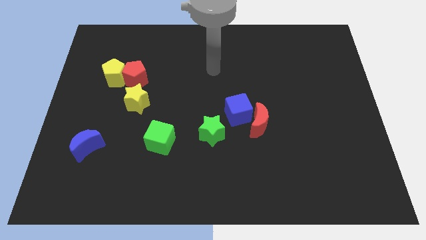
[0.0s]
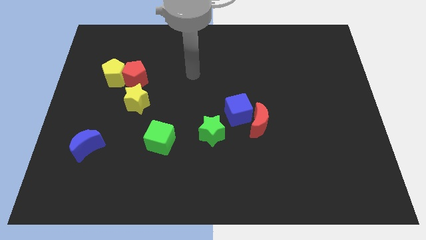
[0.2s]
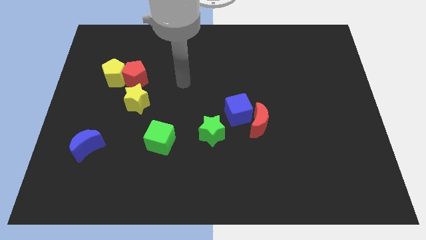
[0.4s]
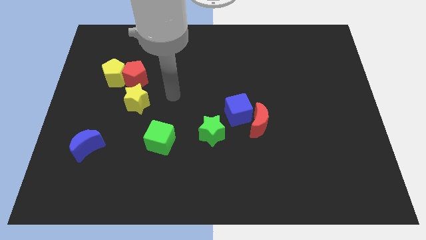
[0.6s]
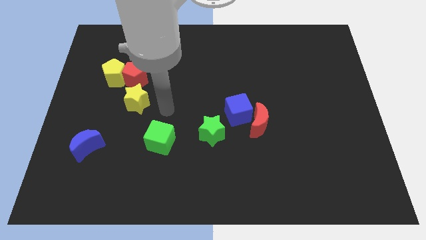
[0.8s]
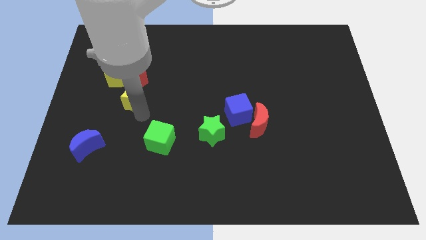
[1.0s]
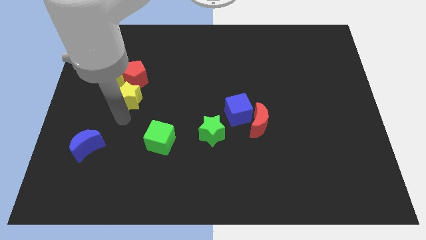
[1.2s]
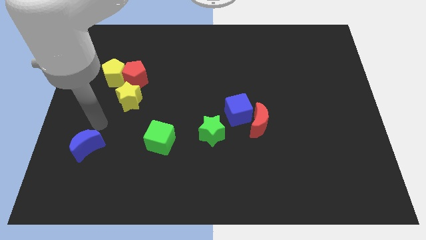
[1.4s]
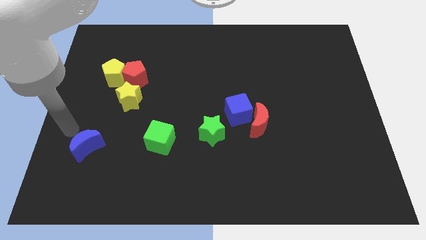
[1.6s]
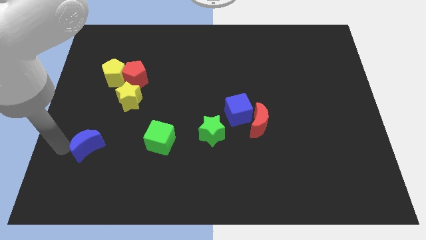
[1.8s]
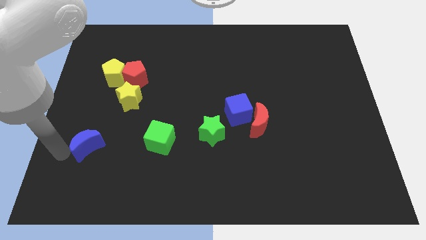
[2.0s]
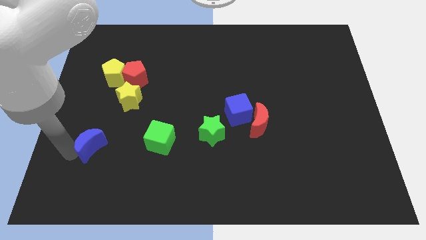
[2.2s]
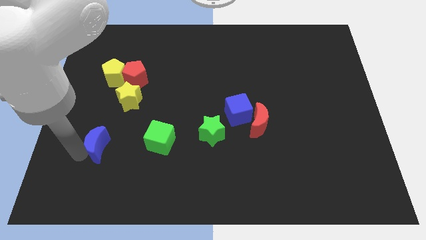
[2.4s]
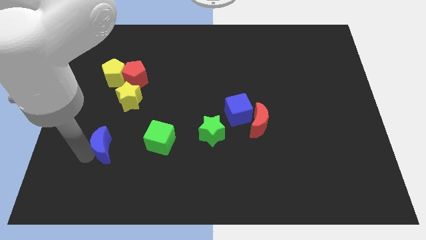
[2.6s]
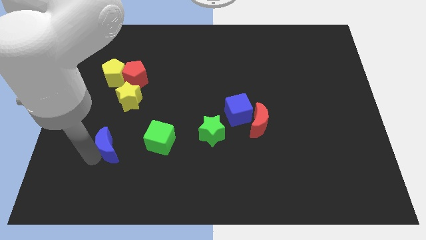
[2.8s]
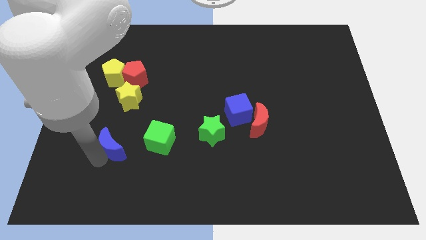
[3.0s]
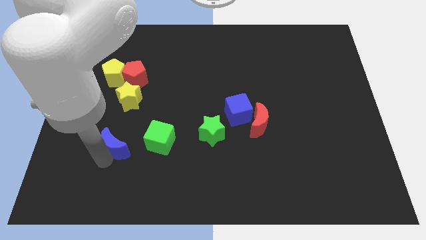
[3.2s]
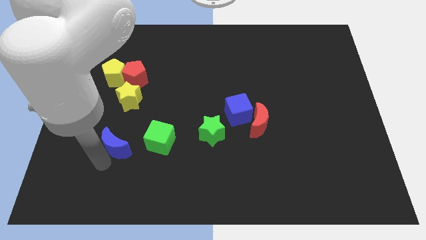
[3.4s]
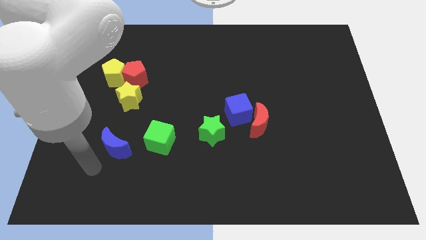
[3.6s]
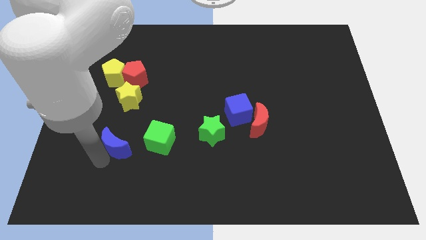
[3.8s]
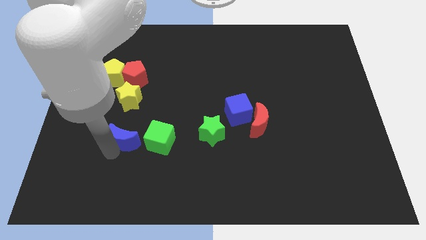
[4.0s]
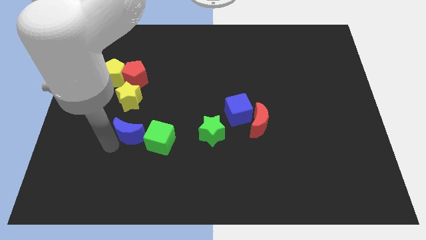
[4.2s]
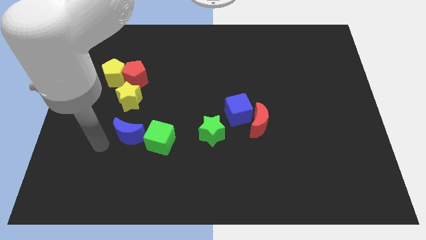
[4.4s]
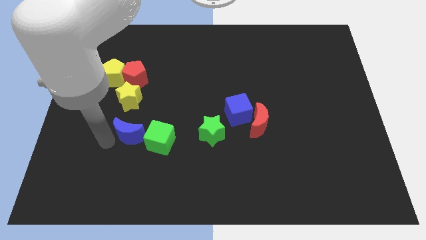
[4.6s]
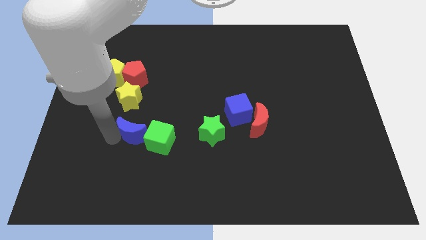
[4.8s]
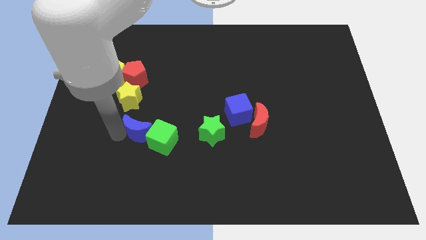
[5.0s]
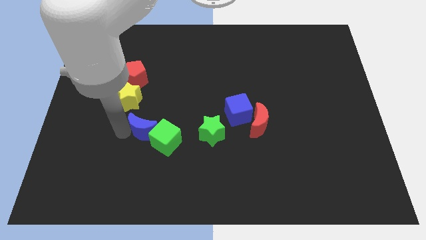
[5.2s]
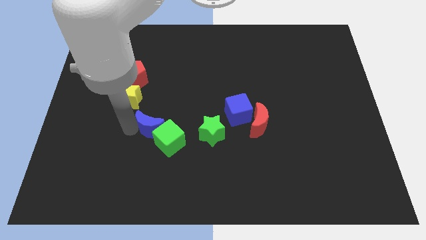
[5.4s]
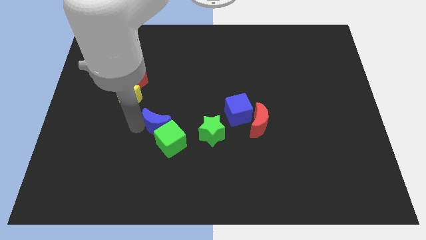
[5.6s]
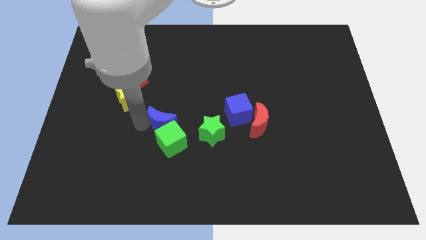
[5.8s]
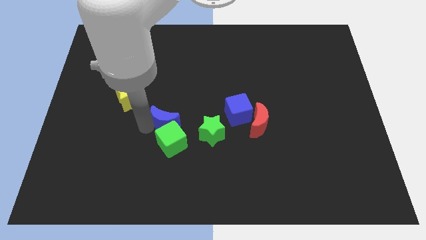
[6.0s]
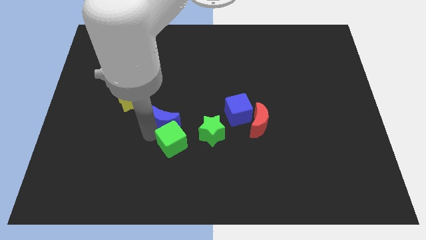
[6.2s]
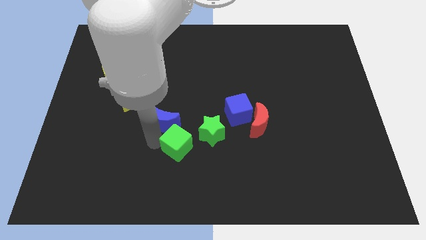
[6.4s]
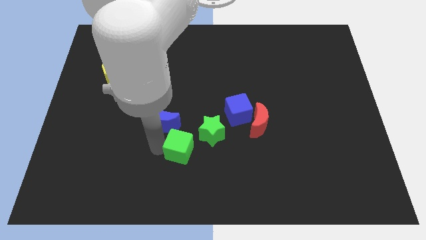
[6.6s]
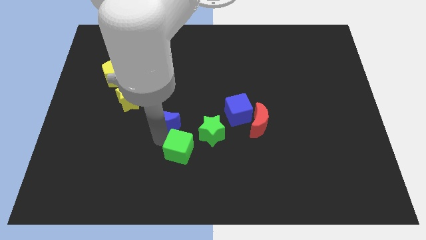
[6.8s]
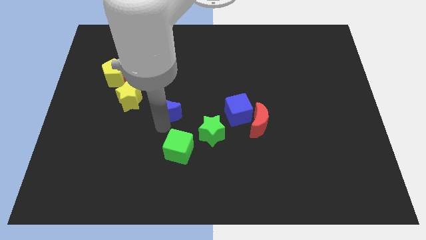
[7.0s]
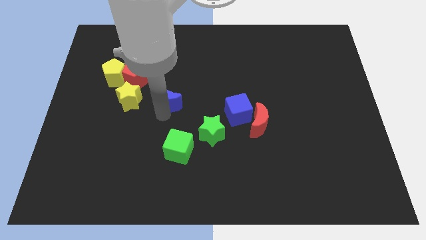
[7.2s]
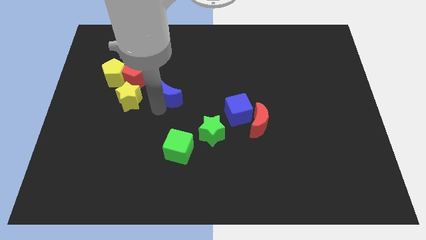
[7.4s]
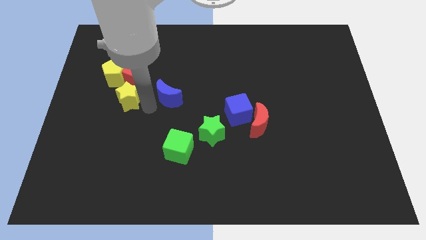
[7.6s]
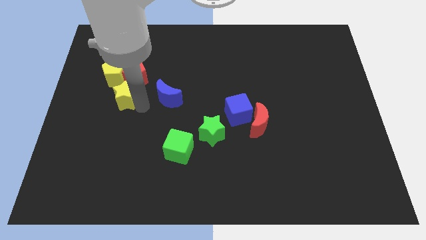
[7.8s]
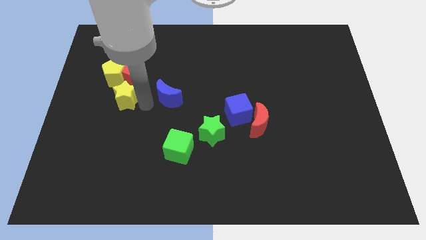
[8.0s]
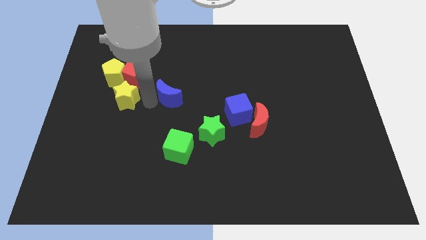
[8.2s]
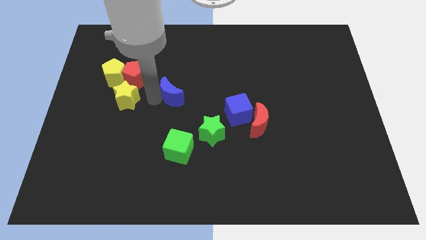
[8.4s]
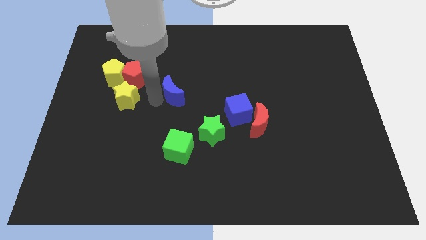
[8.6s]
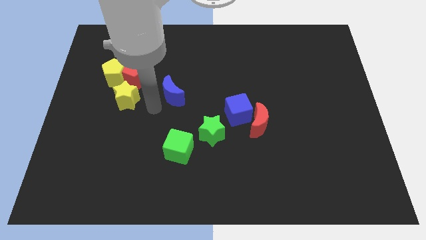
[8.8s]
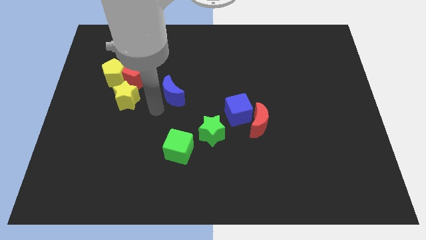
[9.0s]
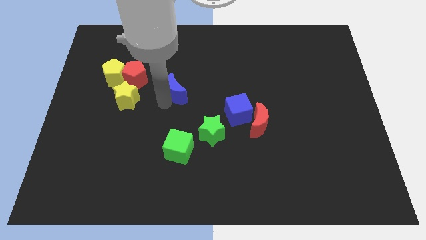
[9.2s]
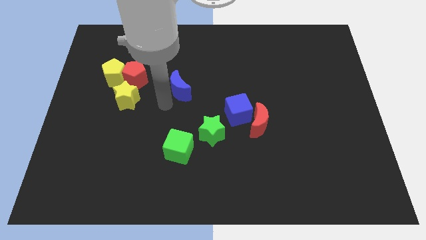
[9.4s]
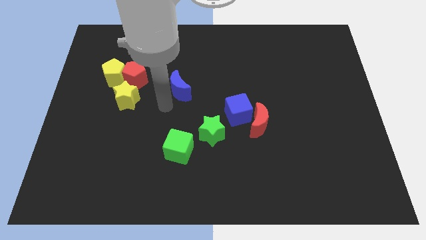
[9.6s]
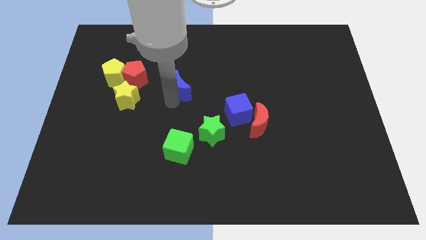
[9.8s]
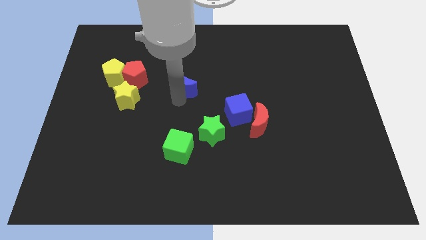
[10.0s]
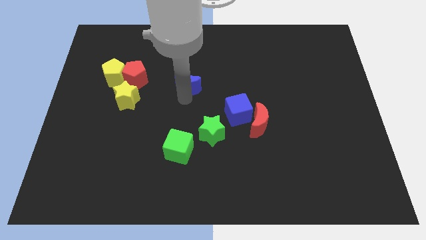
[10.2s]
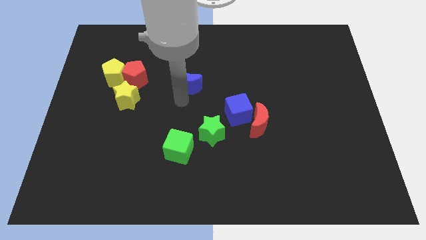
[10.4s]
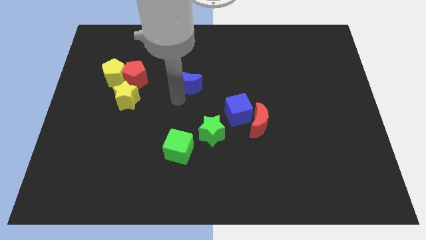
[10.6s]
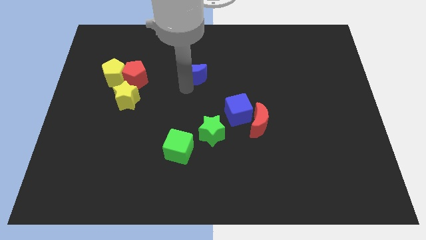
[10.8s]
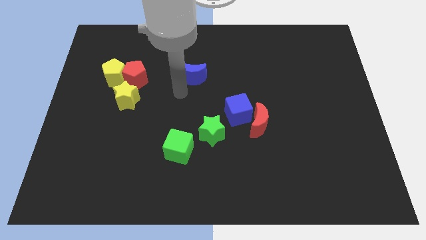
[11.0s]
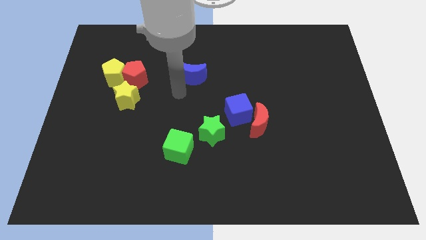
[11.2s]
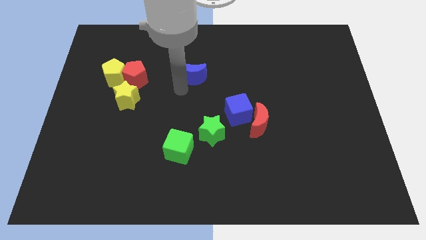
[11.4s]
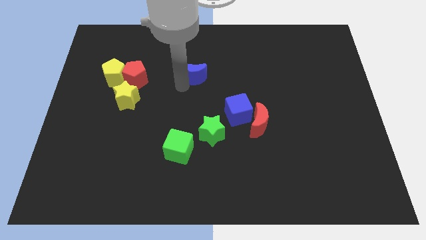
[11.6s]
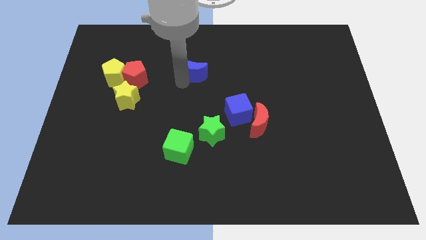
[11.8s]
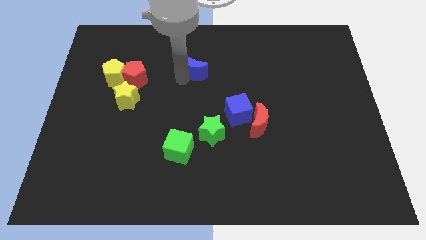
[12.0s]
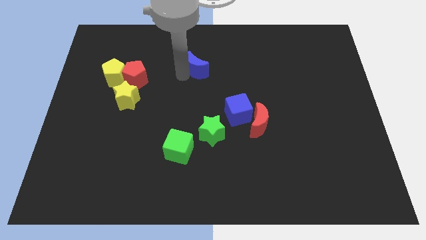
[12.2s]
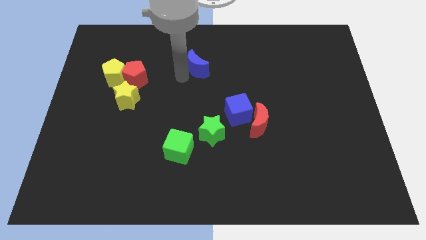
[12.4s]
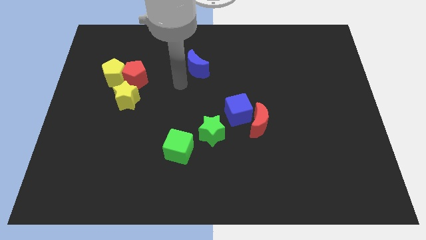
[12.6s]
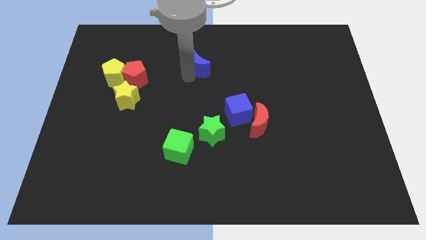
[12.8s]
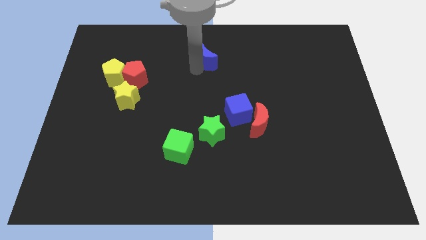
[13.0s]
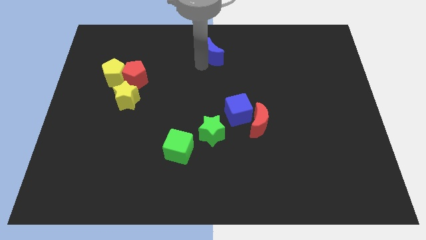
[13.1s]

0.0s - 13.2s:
move the blue moon to the towards your base

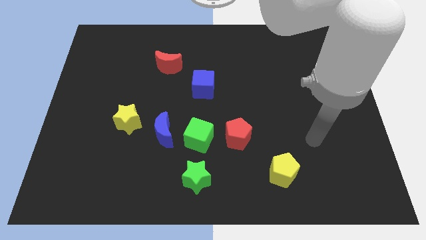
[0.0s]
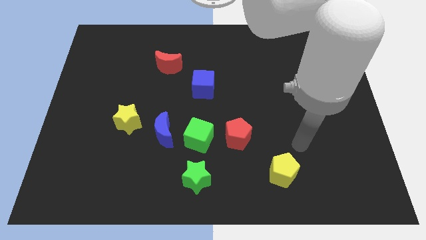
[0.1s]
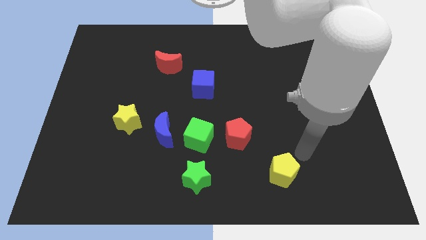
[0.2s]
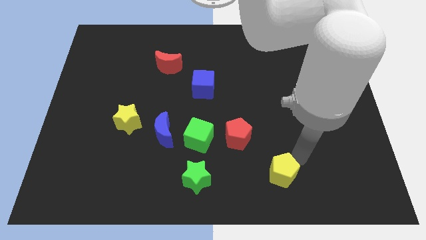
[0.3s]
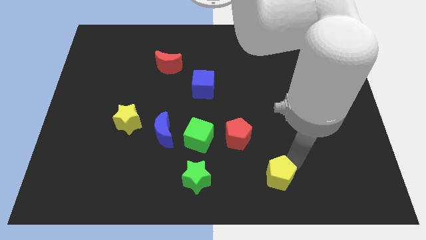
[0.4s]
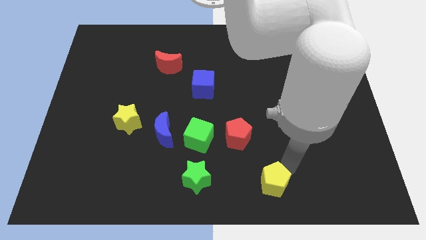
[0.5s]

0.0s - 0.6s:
push the yellow pentagon to the bottom
